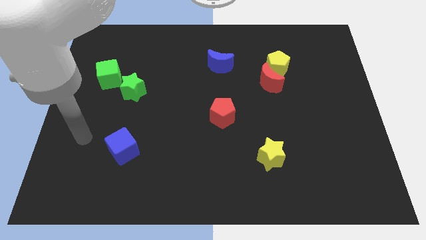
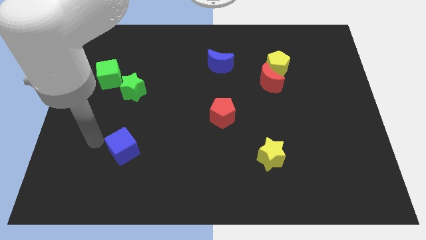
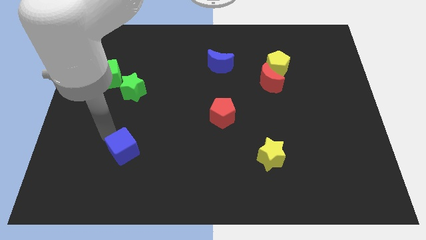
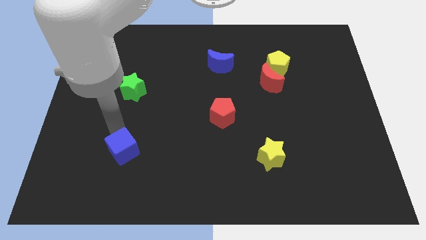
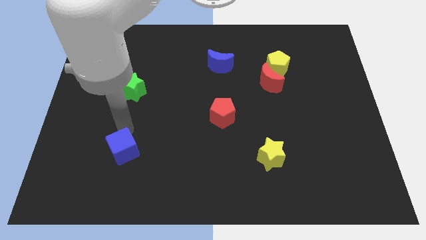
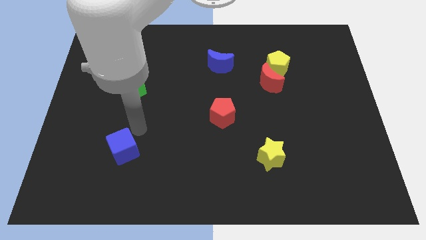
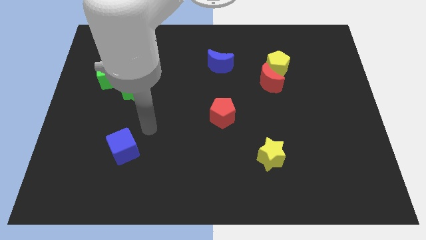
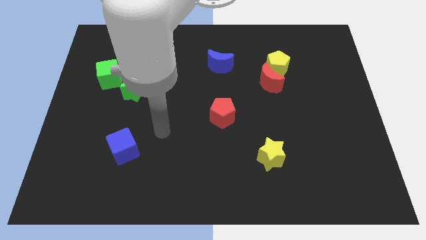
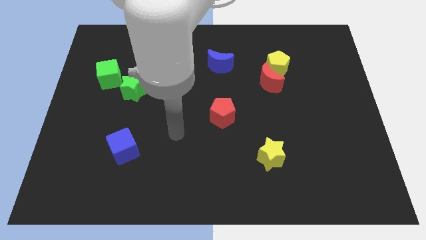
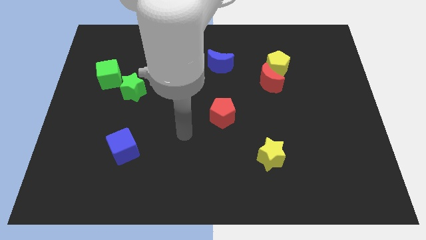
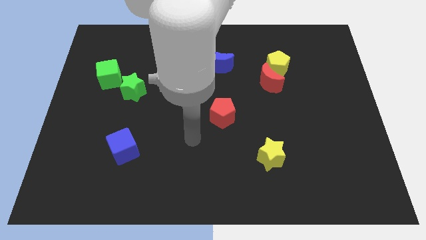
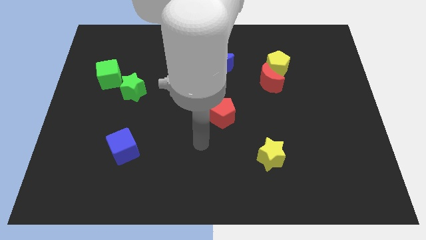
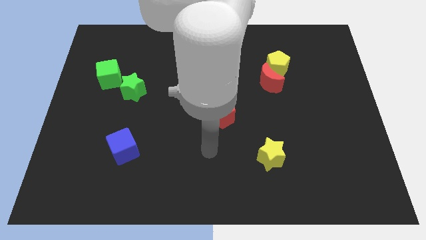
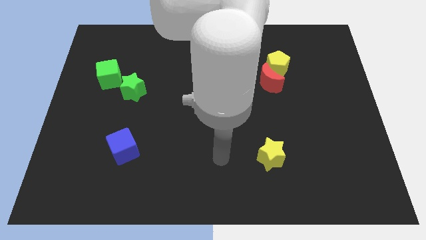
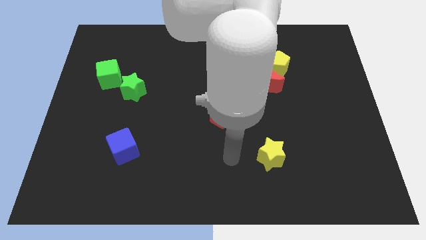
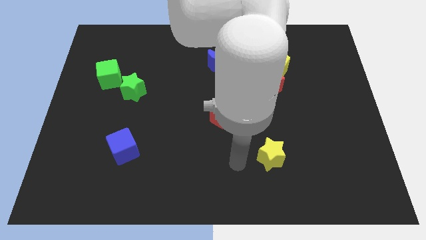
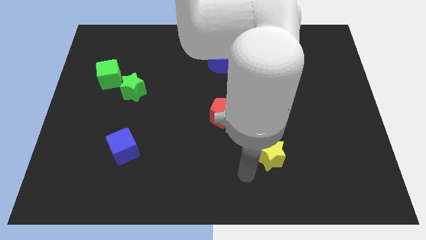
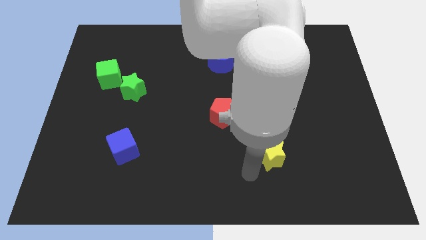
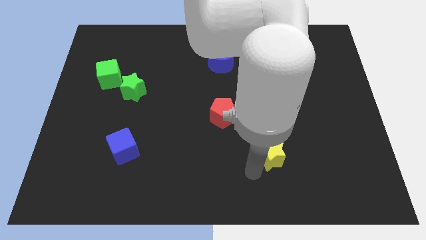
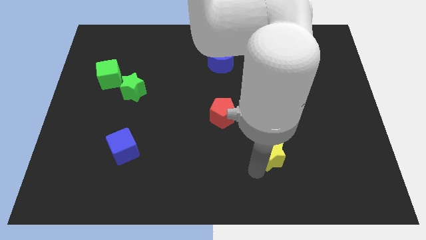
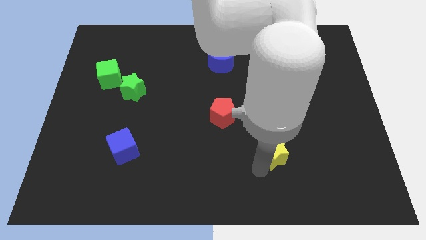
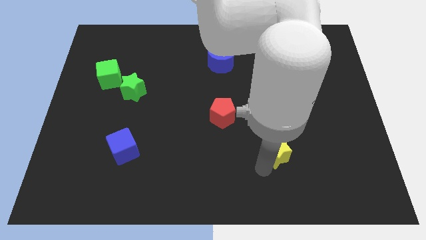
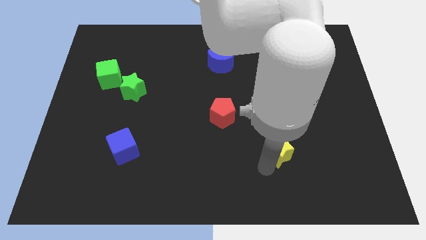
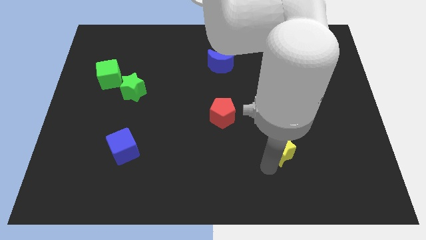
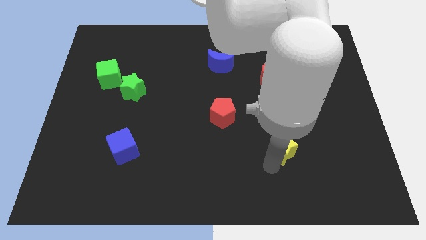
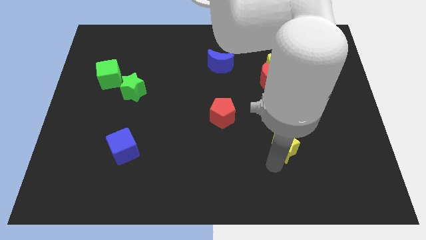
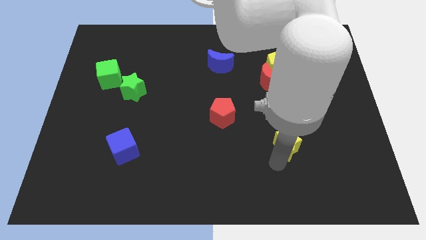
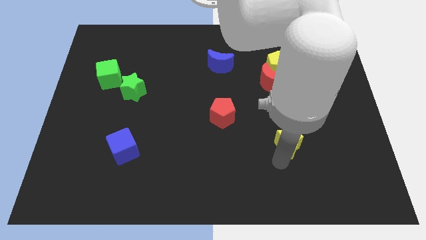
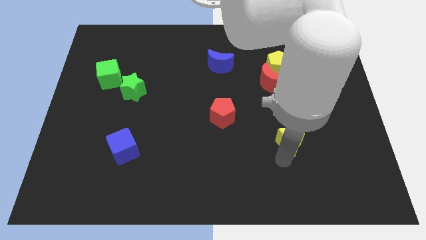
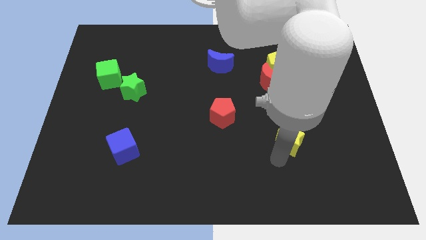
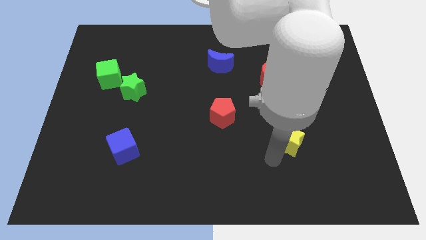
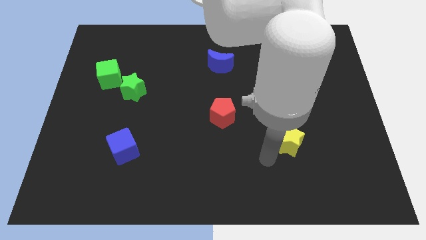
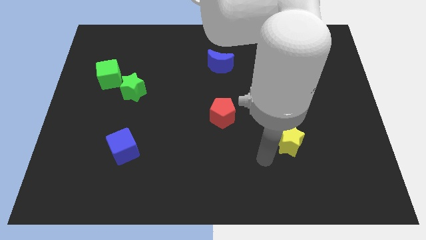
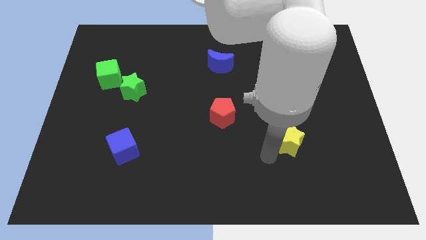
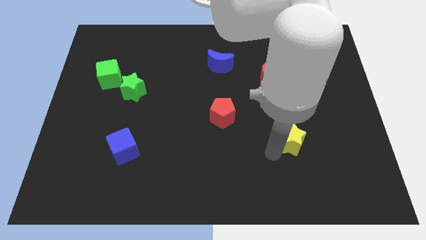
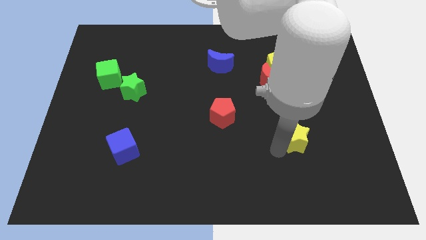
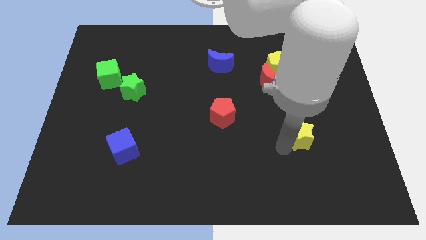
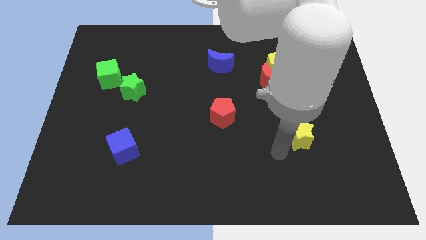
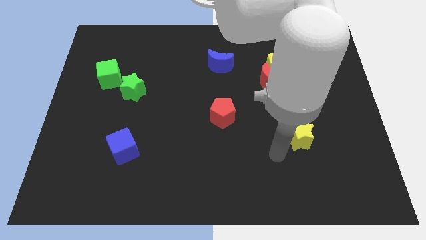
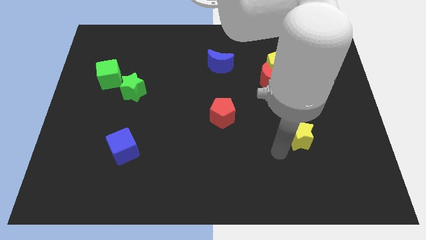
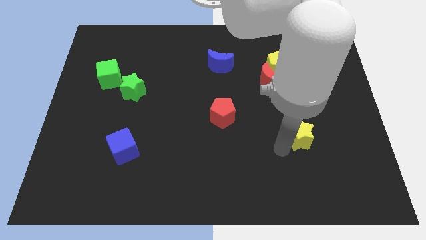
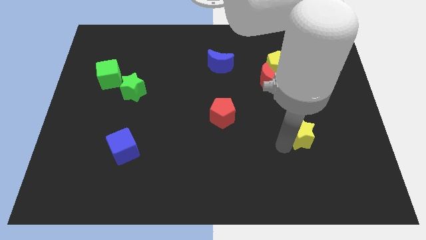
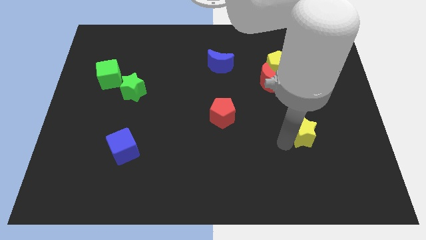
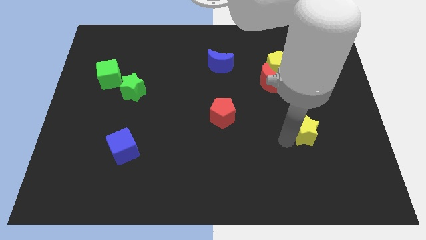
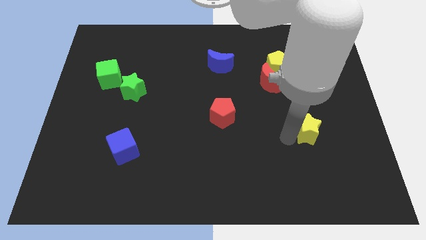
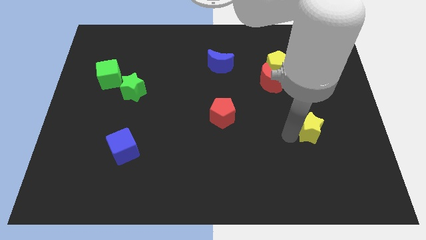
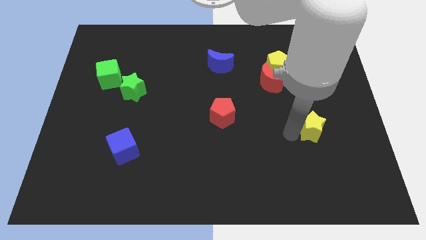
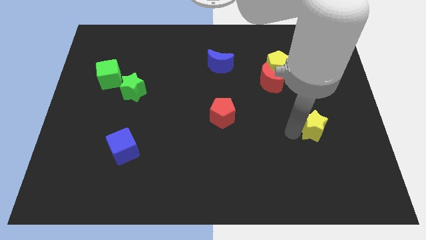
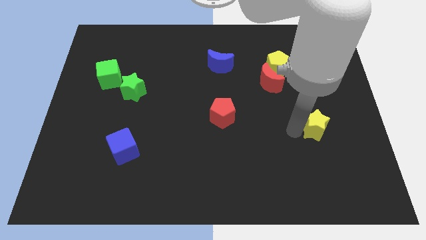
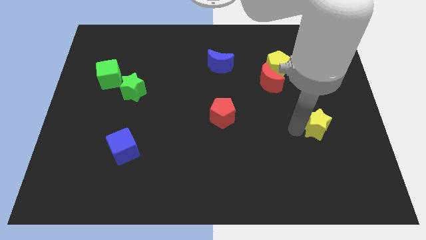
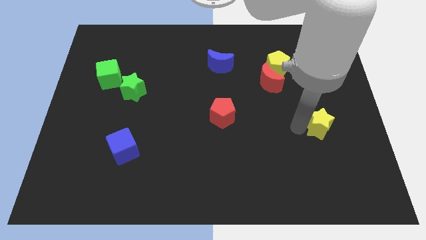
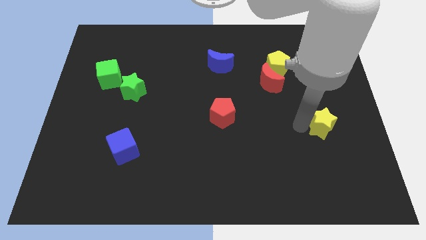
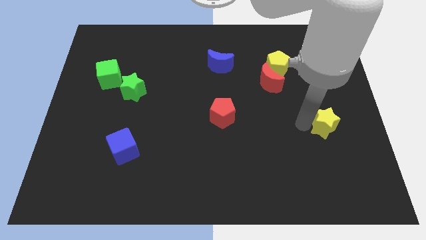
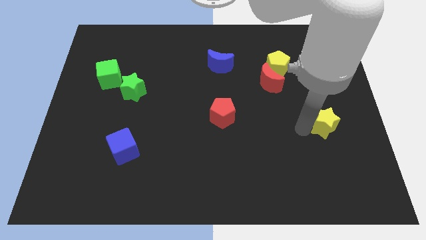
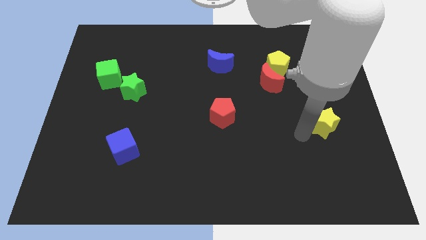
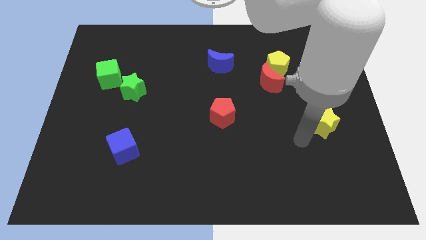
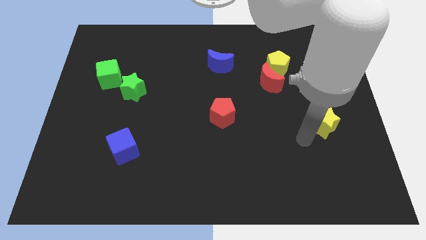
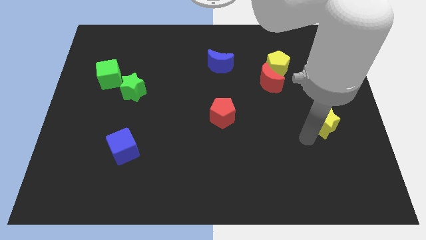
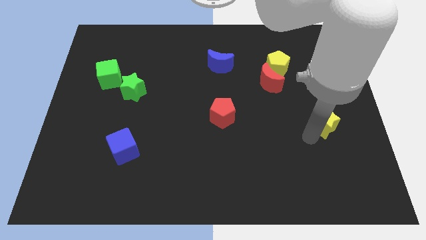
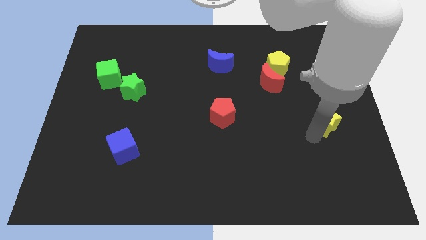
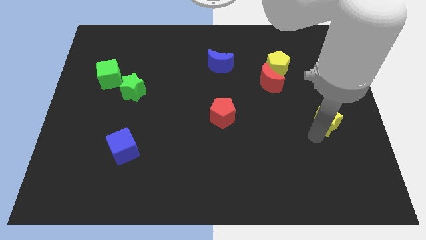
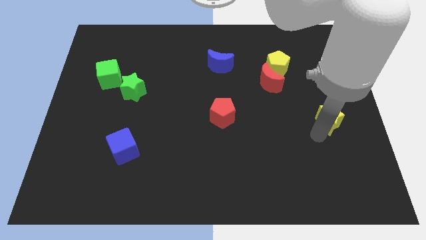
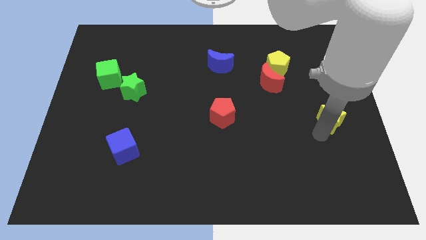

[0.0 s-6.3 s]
slide the yellow star to the right side of the board

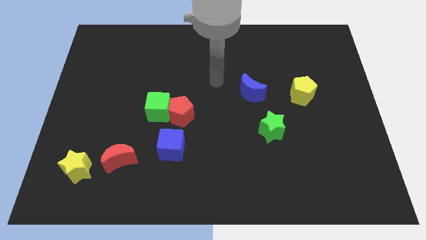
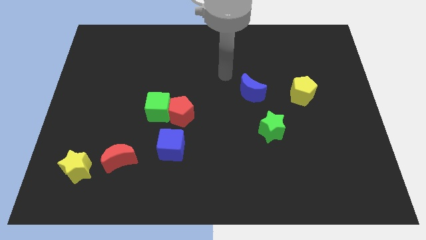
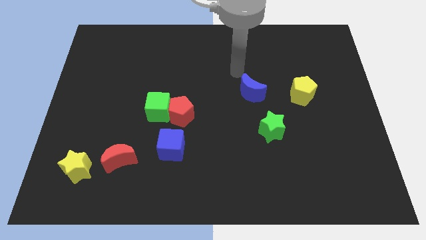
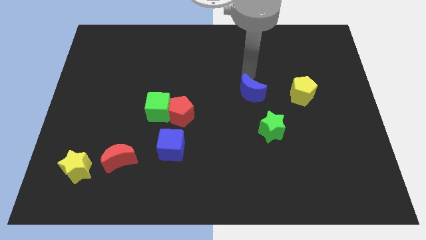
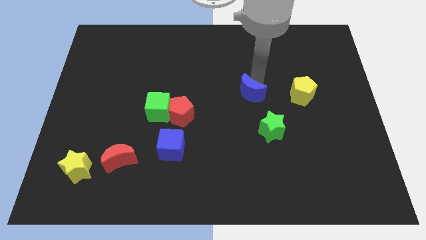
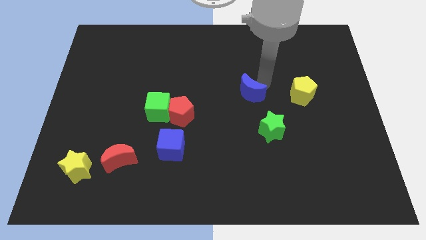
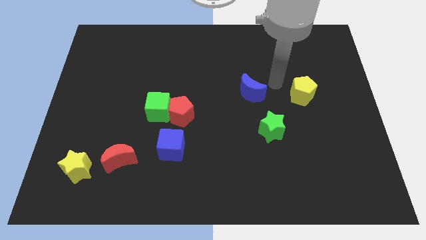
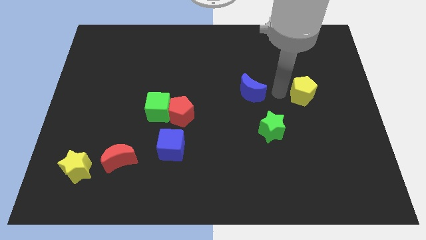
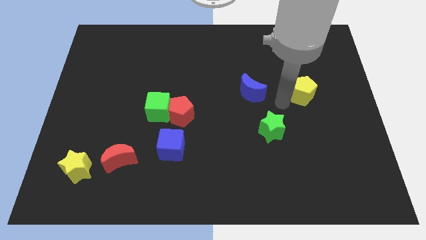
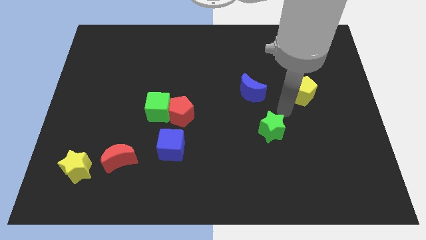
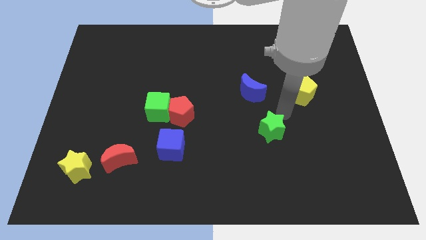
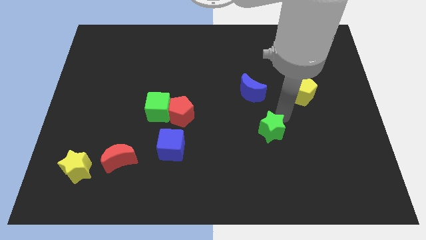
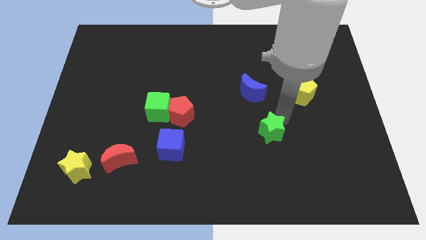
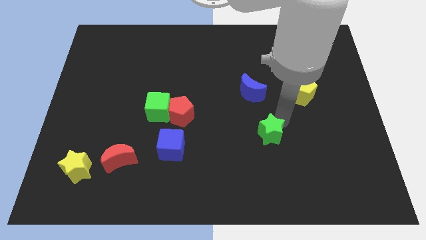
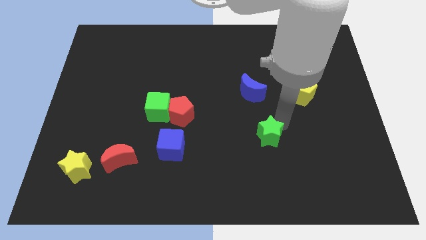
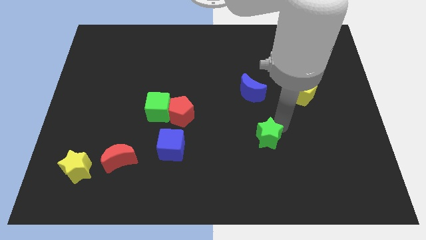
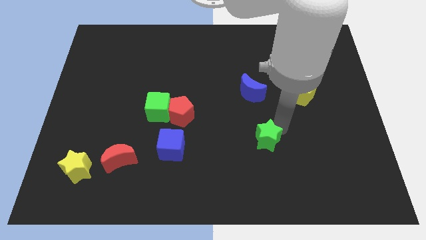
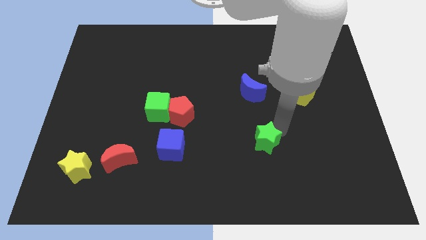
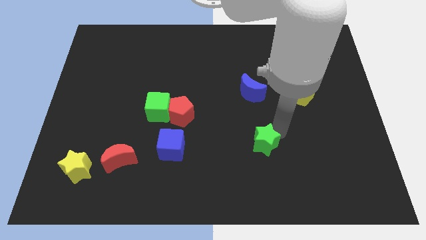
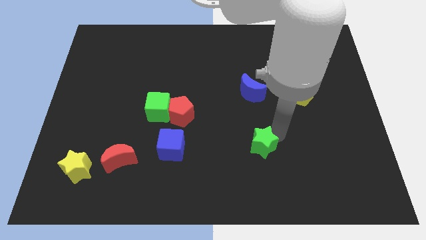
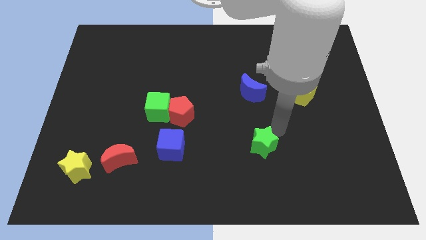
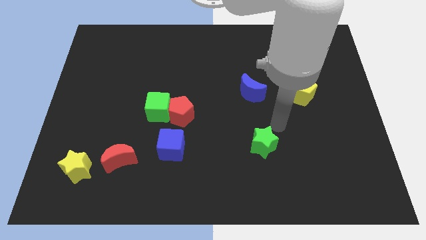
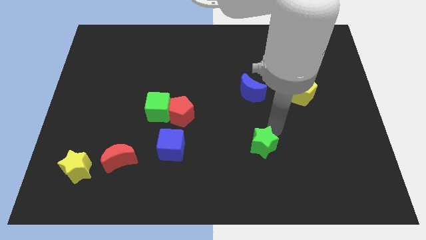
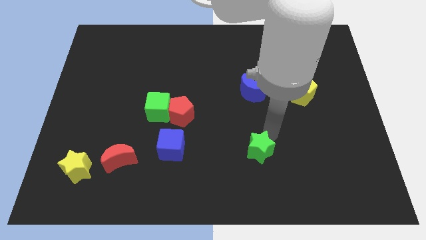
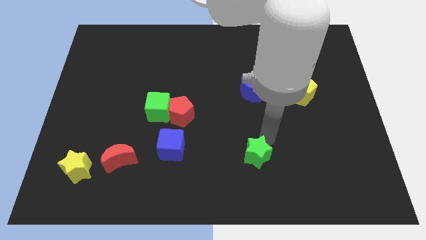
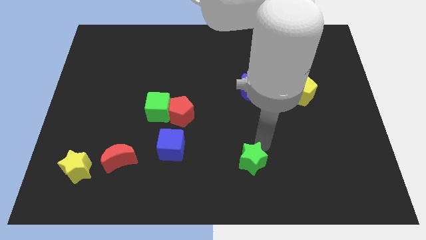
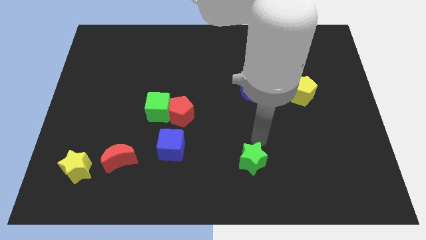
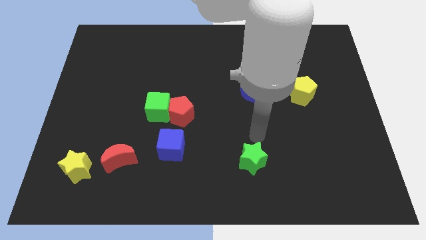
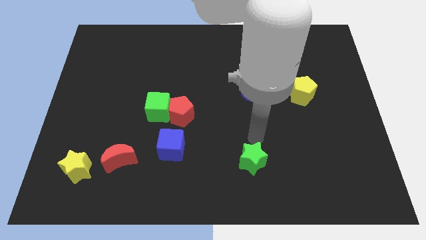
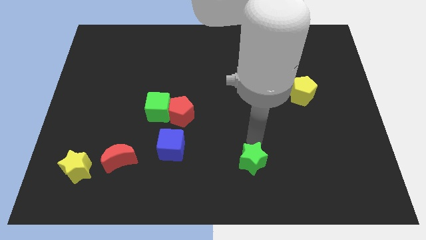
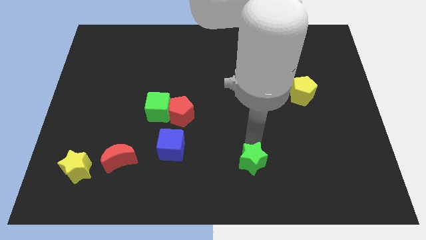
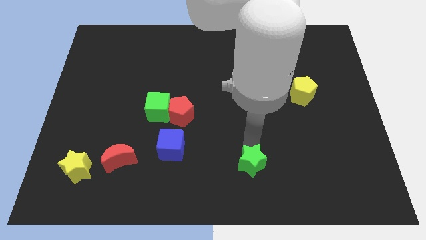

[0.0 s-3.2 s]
push the green star to the bottom side
